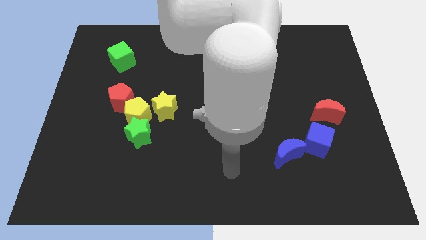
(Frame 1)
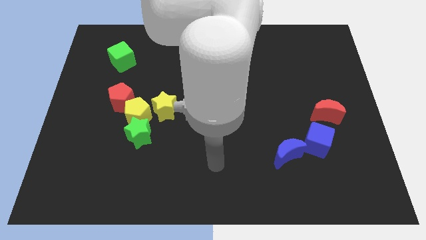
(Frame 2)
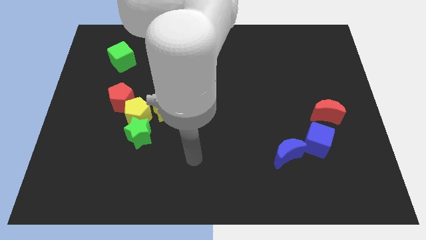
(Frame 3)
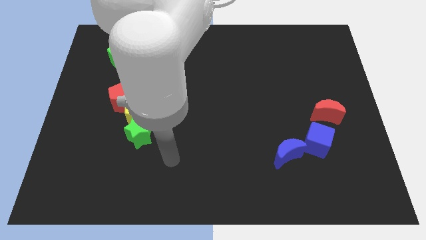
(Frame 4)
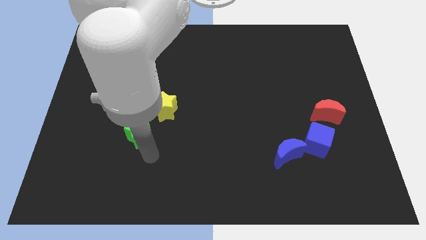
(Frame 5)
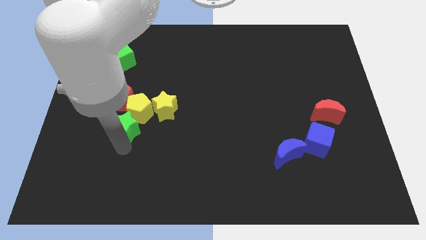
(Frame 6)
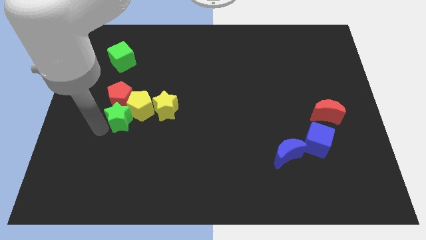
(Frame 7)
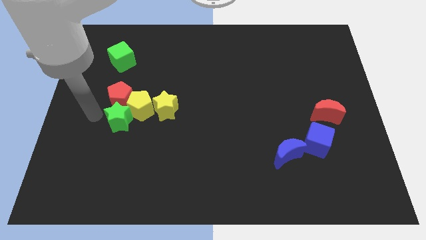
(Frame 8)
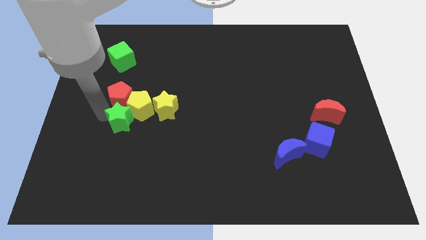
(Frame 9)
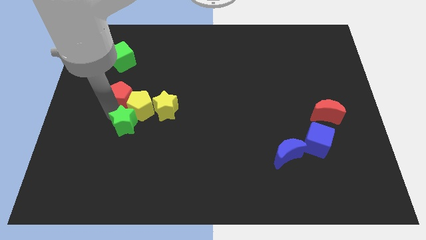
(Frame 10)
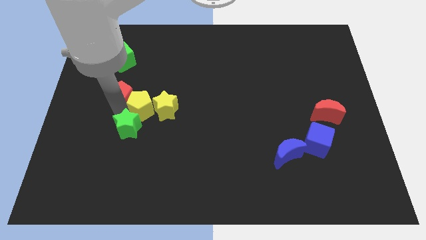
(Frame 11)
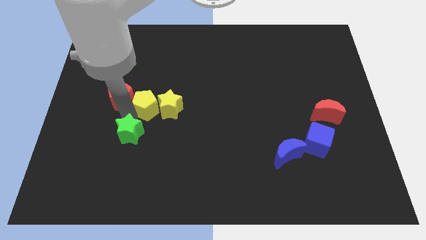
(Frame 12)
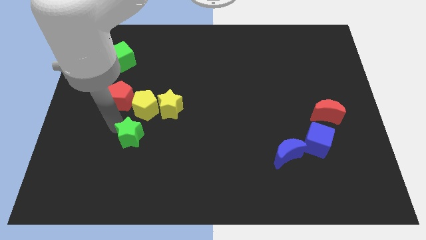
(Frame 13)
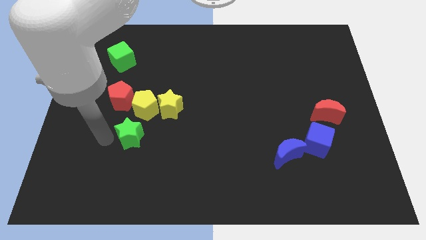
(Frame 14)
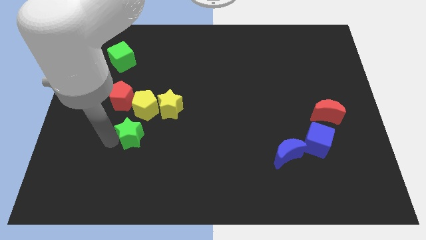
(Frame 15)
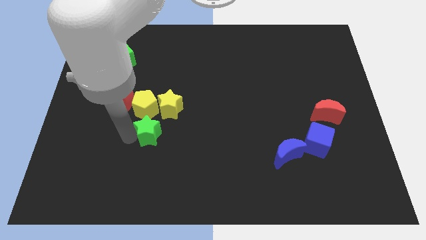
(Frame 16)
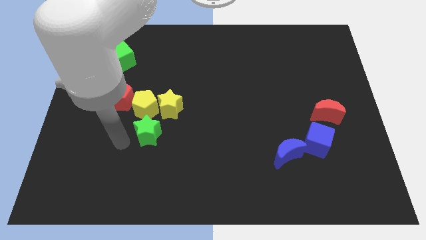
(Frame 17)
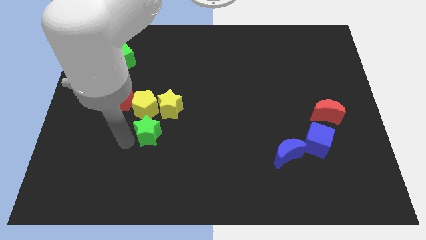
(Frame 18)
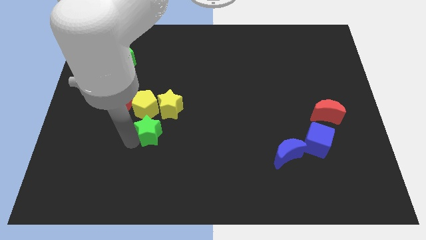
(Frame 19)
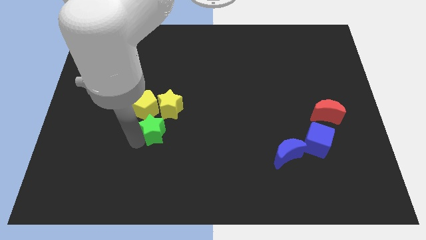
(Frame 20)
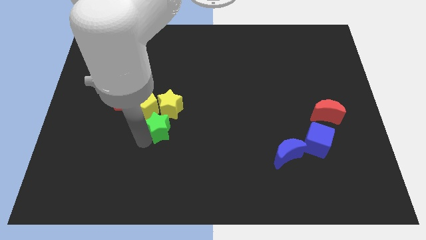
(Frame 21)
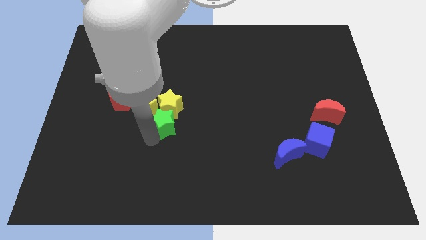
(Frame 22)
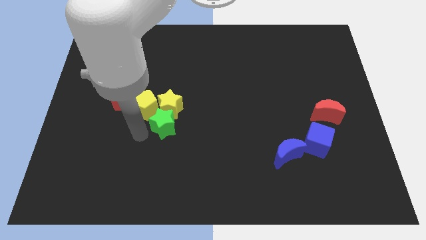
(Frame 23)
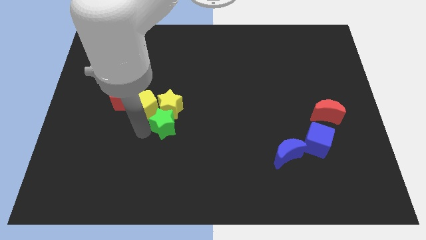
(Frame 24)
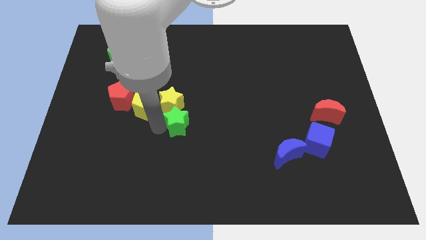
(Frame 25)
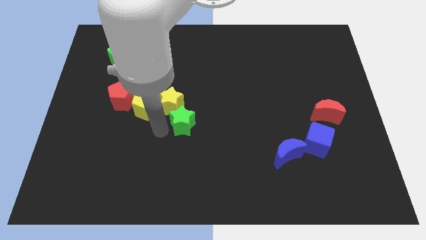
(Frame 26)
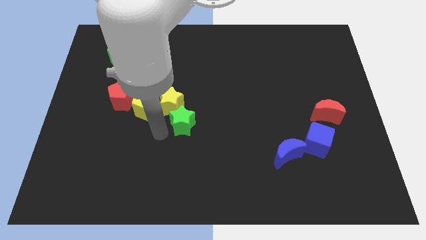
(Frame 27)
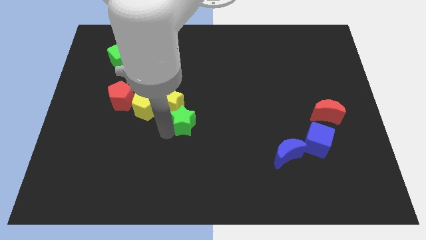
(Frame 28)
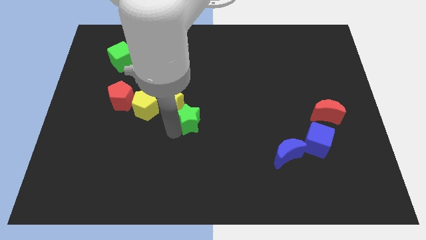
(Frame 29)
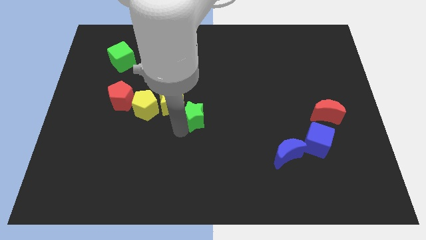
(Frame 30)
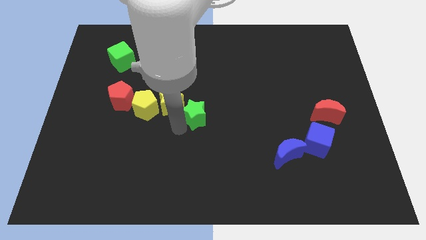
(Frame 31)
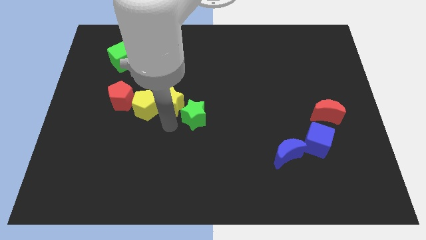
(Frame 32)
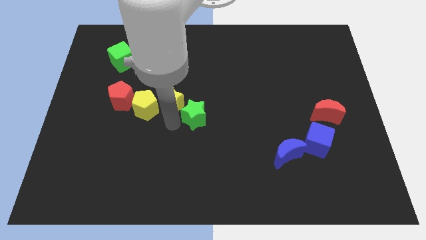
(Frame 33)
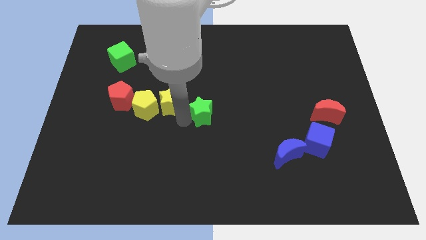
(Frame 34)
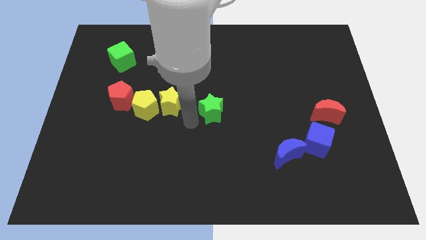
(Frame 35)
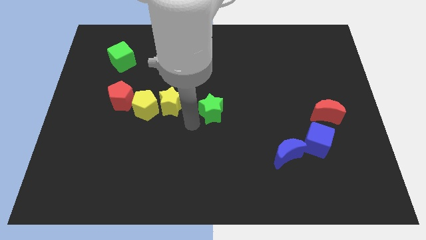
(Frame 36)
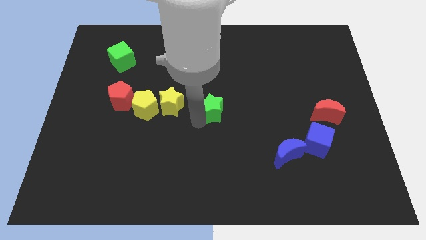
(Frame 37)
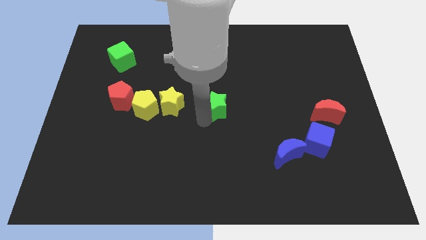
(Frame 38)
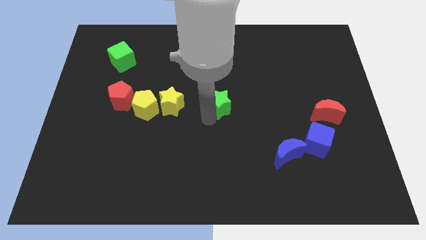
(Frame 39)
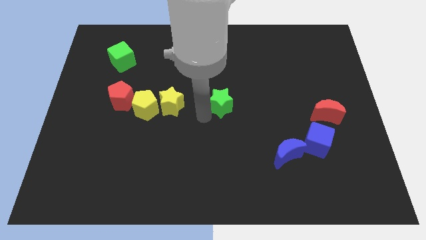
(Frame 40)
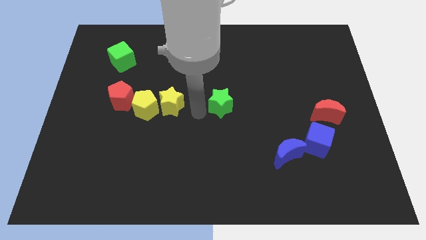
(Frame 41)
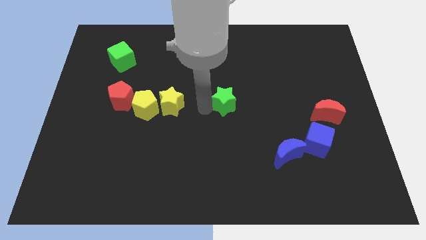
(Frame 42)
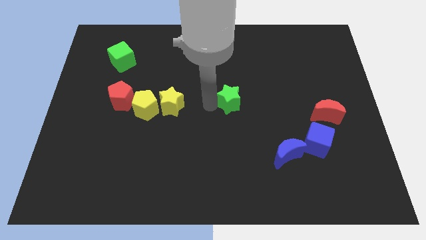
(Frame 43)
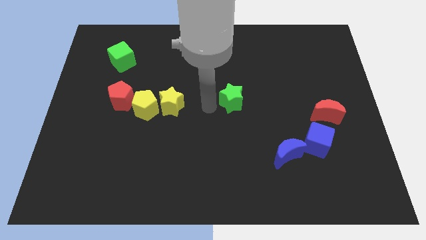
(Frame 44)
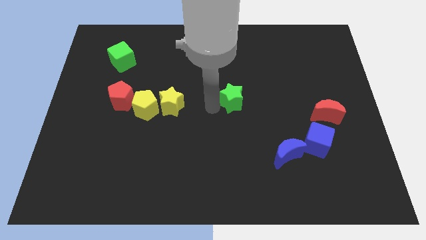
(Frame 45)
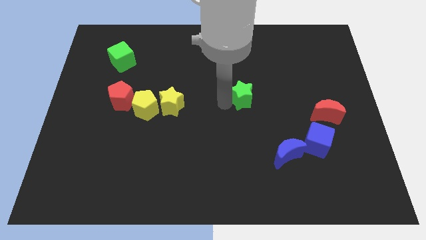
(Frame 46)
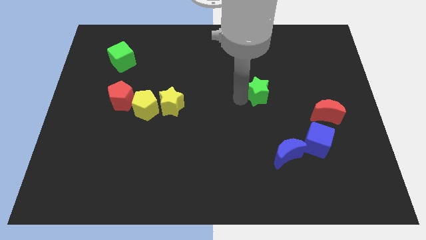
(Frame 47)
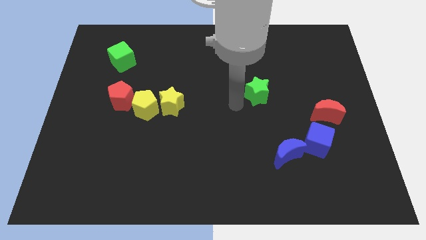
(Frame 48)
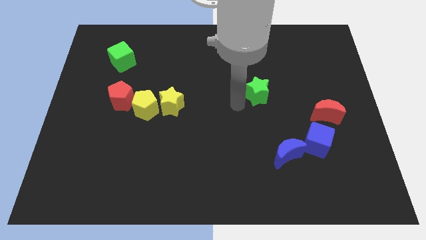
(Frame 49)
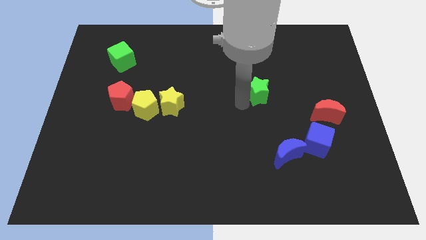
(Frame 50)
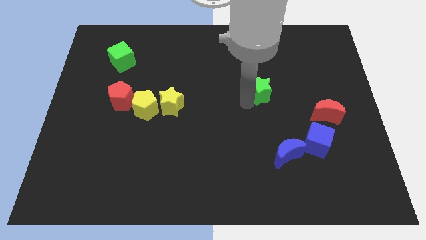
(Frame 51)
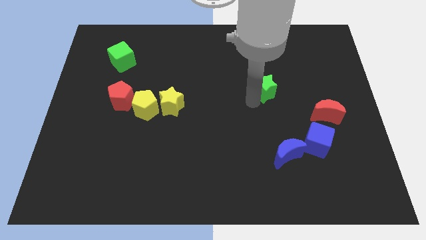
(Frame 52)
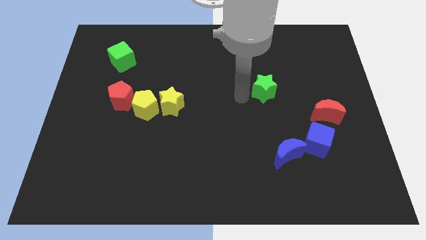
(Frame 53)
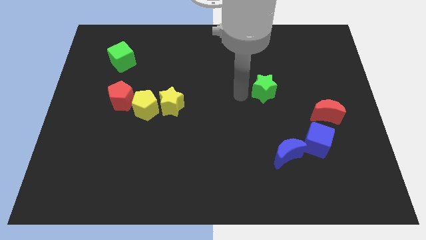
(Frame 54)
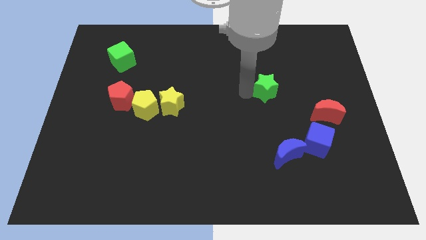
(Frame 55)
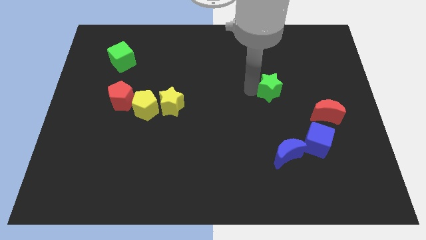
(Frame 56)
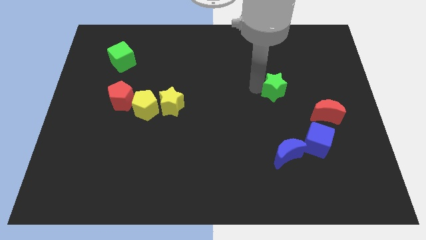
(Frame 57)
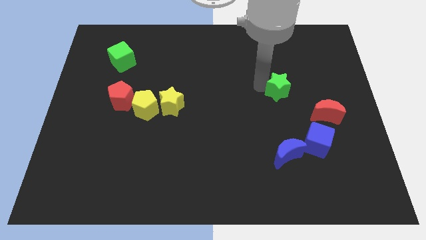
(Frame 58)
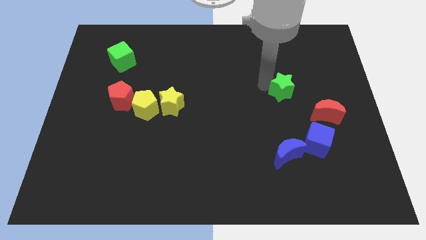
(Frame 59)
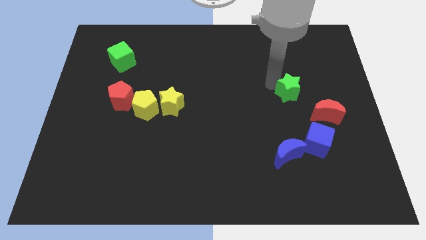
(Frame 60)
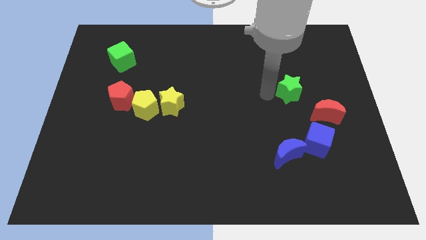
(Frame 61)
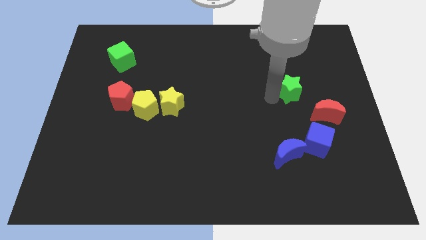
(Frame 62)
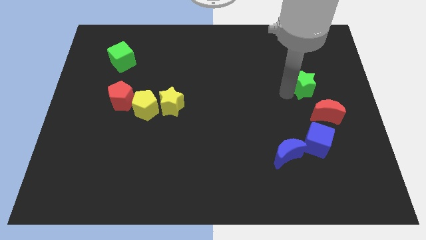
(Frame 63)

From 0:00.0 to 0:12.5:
slide the green star to the top side of the red moon

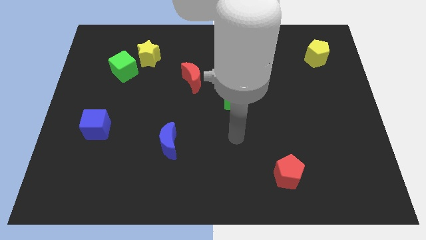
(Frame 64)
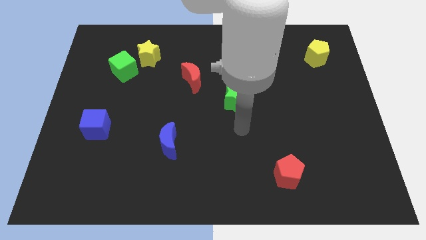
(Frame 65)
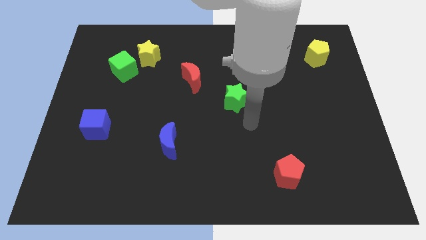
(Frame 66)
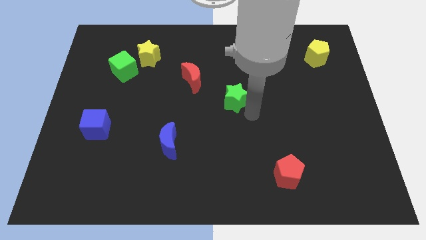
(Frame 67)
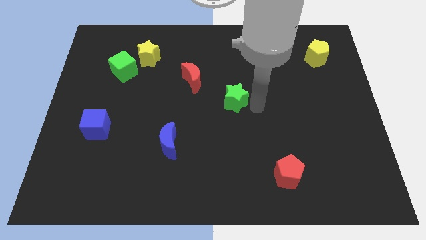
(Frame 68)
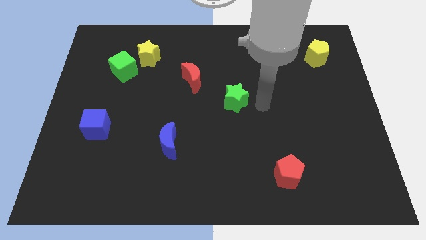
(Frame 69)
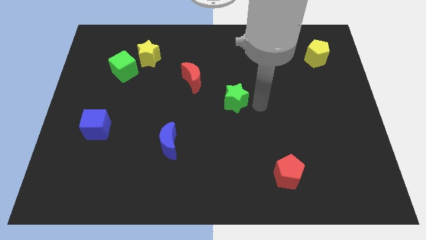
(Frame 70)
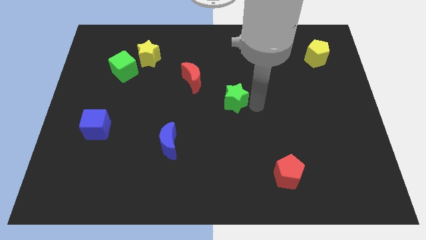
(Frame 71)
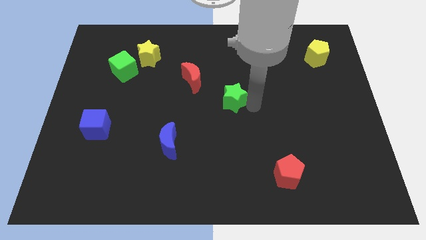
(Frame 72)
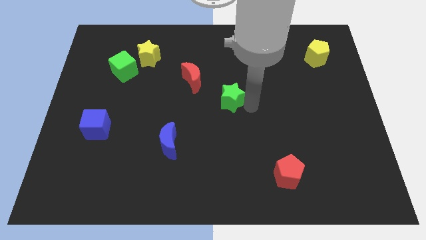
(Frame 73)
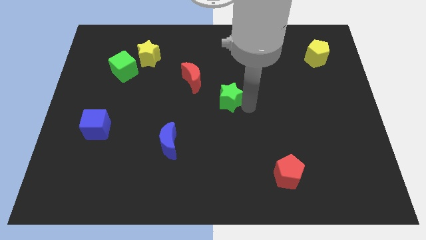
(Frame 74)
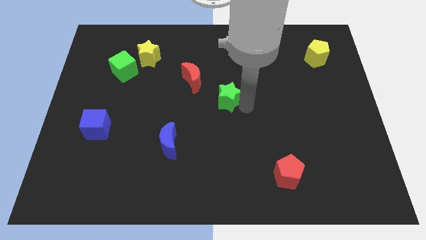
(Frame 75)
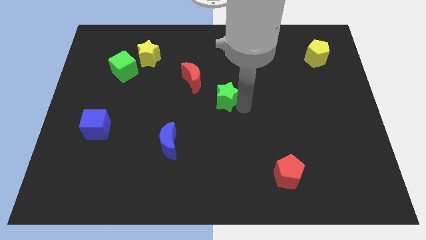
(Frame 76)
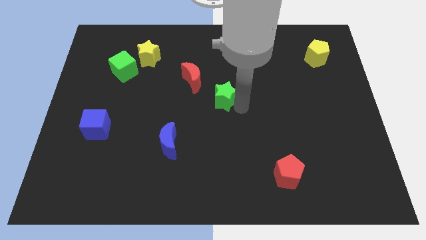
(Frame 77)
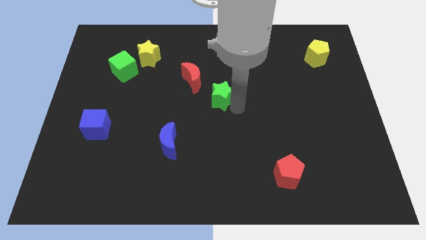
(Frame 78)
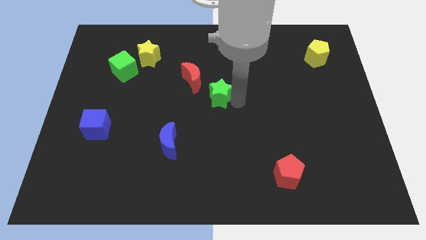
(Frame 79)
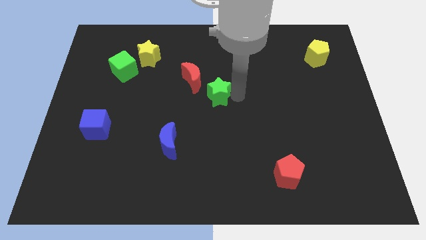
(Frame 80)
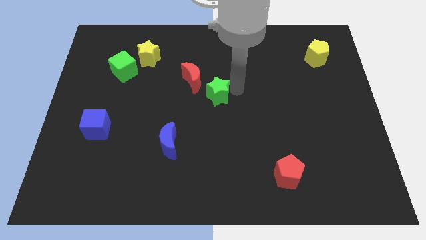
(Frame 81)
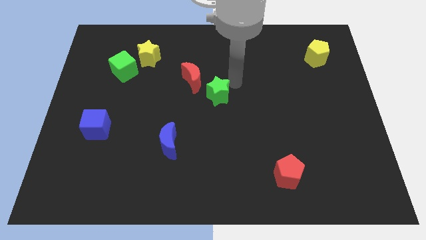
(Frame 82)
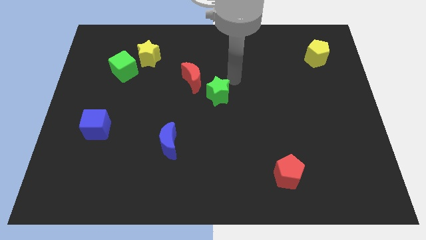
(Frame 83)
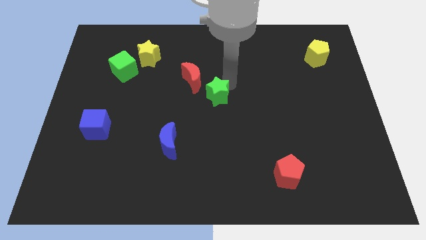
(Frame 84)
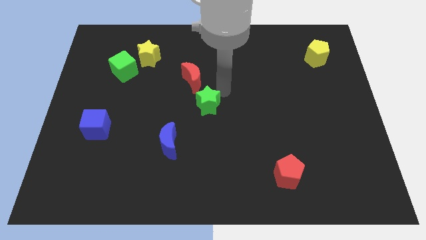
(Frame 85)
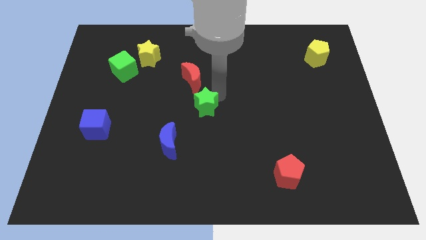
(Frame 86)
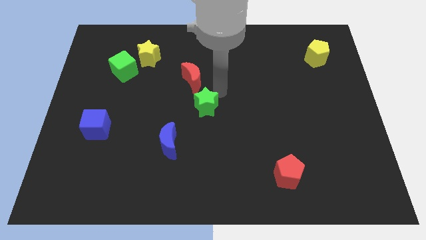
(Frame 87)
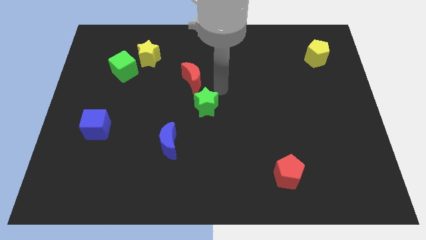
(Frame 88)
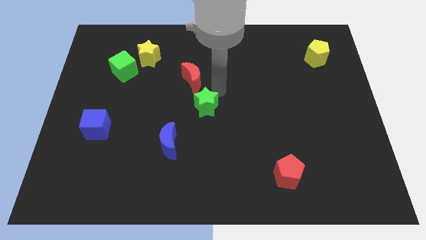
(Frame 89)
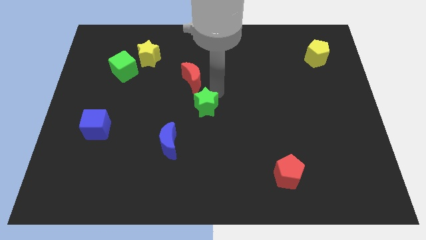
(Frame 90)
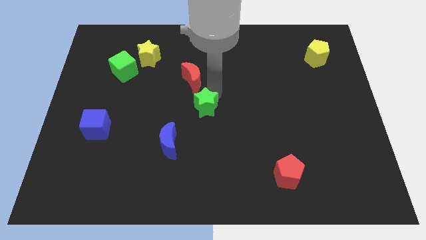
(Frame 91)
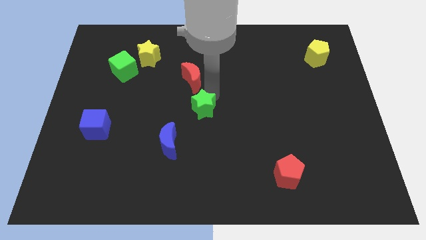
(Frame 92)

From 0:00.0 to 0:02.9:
push the green star to the top right side of the blue moon
